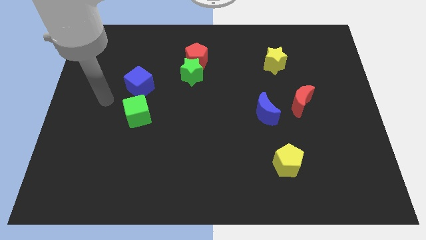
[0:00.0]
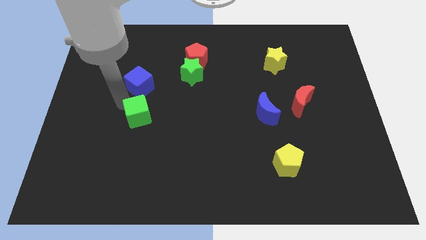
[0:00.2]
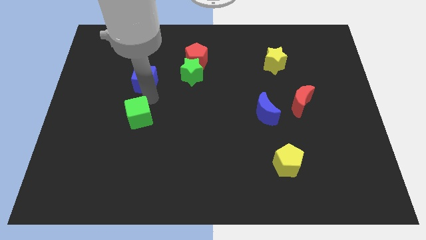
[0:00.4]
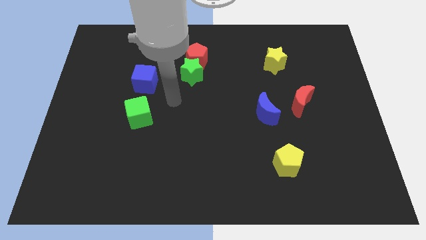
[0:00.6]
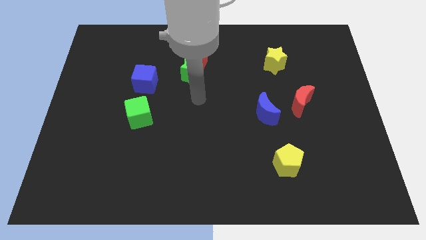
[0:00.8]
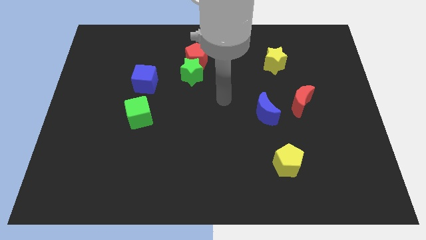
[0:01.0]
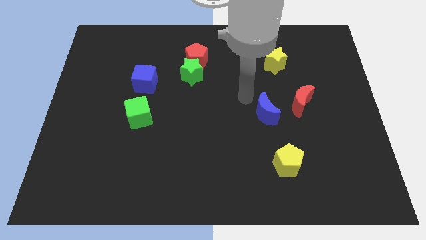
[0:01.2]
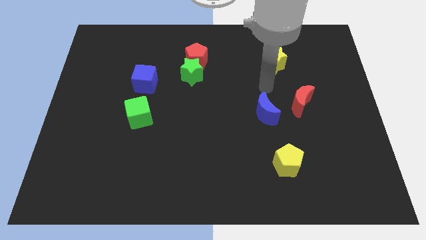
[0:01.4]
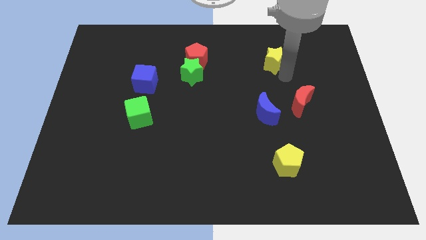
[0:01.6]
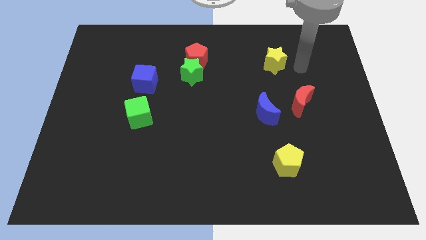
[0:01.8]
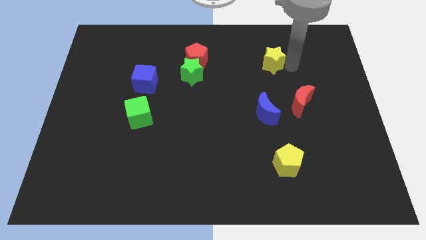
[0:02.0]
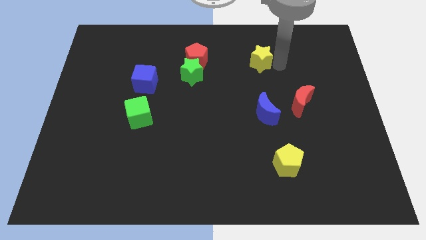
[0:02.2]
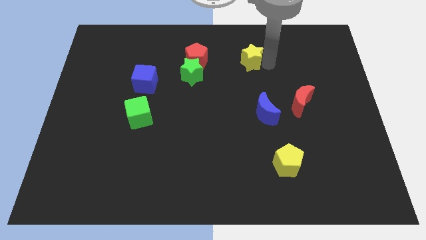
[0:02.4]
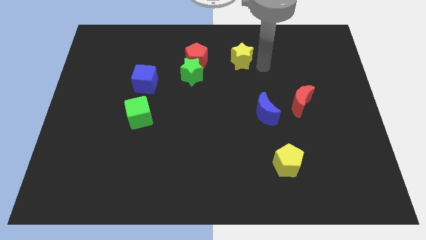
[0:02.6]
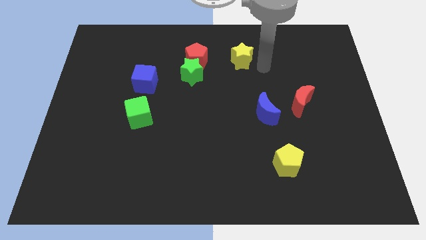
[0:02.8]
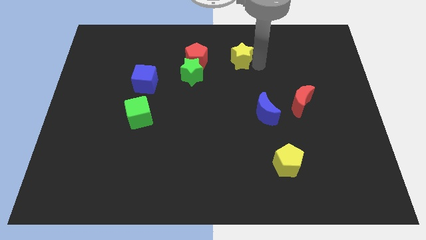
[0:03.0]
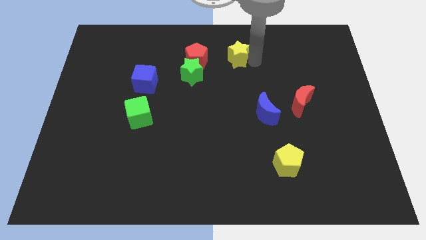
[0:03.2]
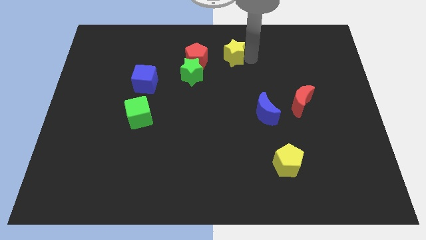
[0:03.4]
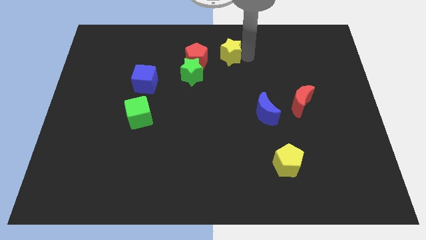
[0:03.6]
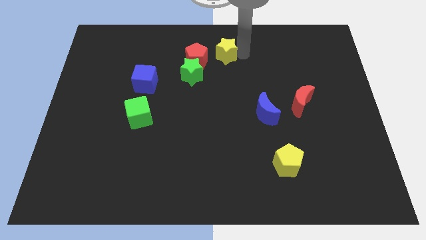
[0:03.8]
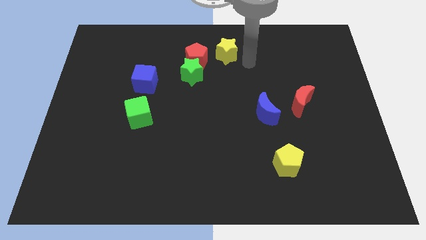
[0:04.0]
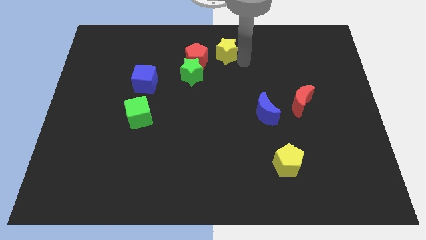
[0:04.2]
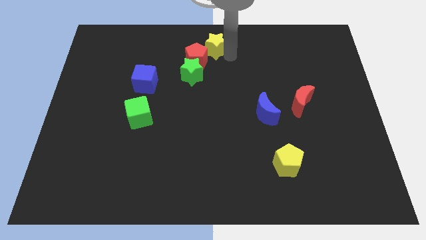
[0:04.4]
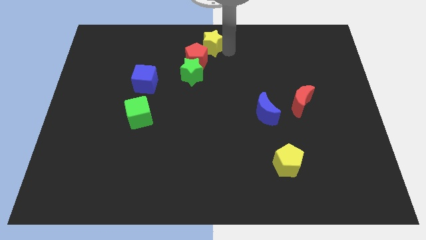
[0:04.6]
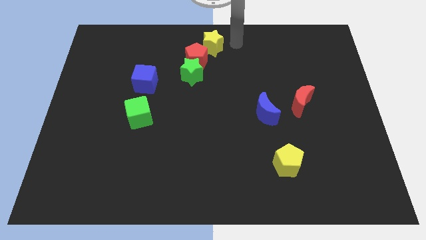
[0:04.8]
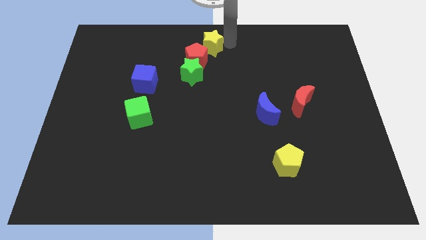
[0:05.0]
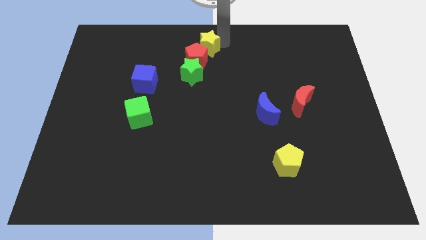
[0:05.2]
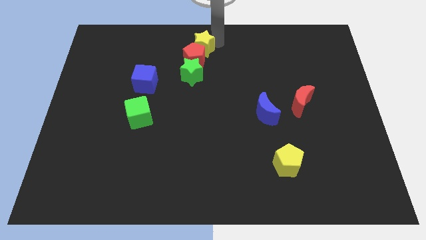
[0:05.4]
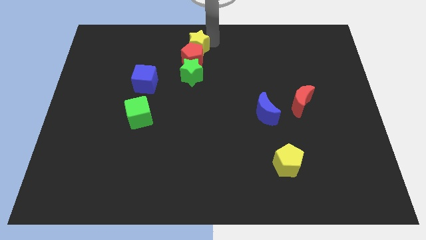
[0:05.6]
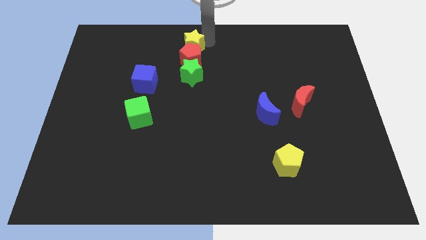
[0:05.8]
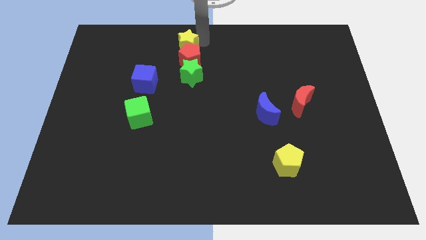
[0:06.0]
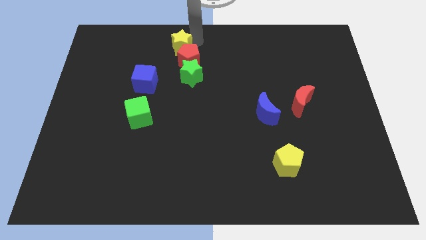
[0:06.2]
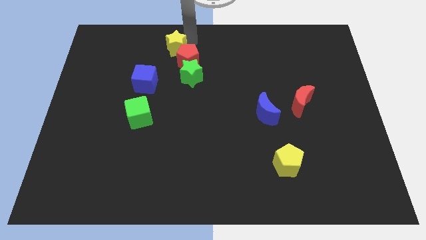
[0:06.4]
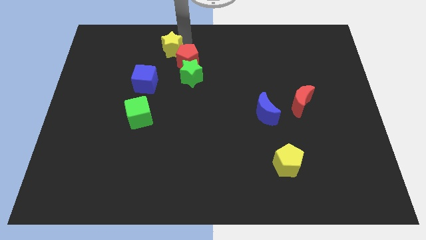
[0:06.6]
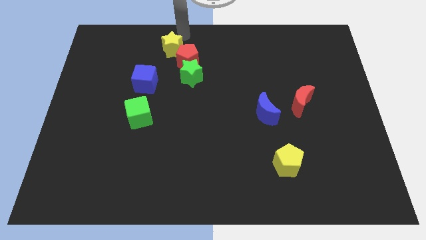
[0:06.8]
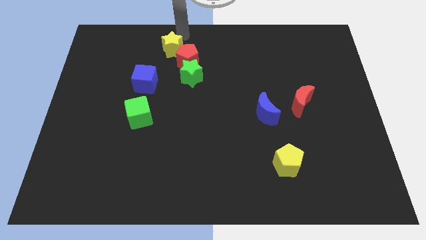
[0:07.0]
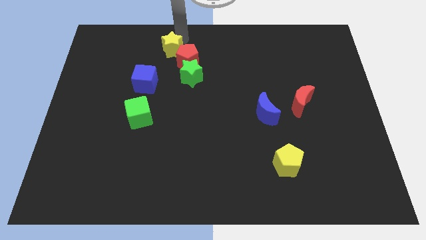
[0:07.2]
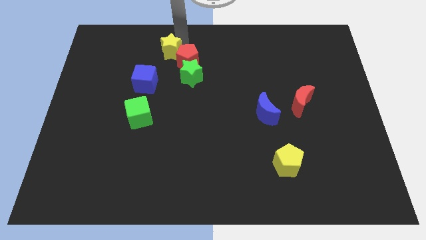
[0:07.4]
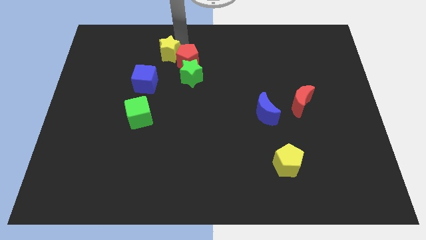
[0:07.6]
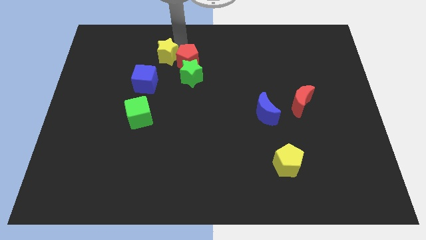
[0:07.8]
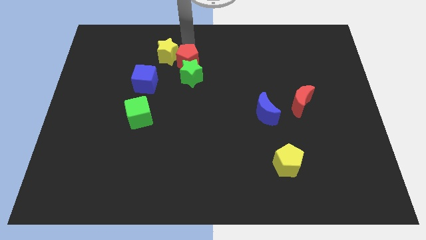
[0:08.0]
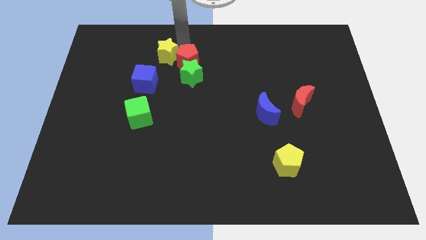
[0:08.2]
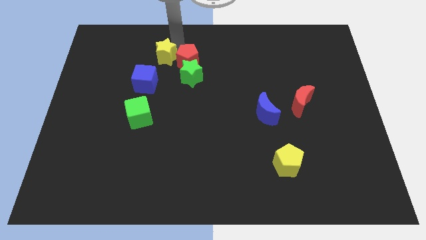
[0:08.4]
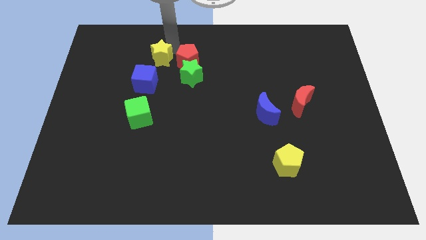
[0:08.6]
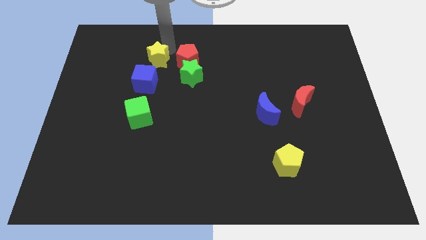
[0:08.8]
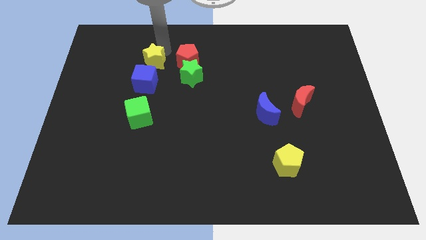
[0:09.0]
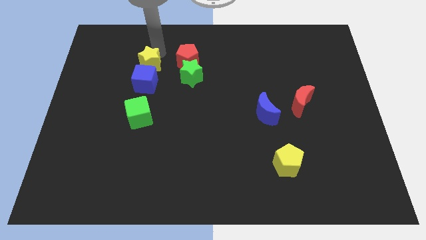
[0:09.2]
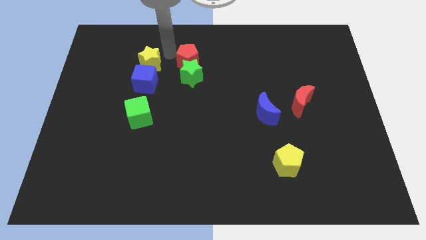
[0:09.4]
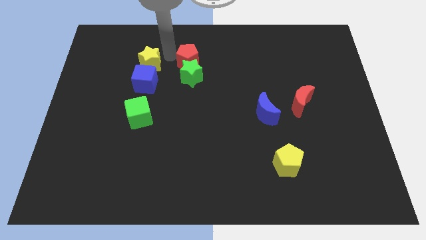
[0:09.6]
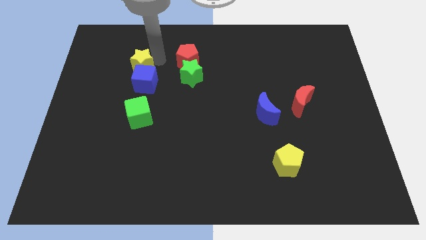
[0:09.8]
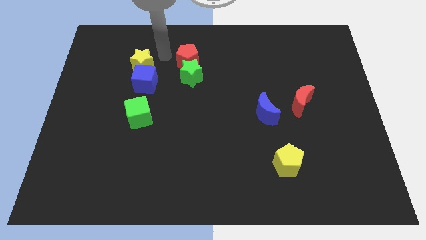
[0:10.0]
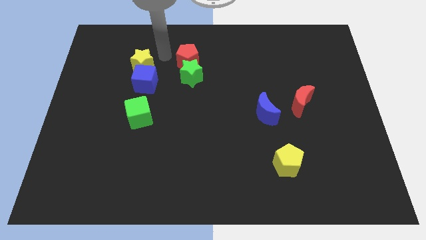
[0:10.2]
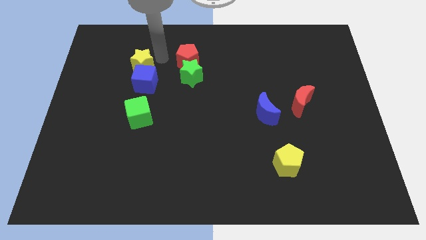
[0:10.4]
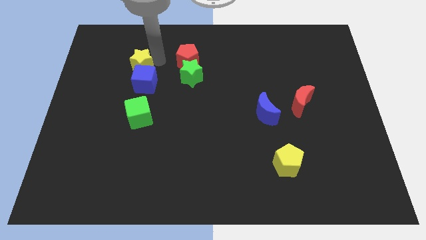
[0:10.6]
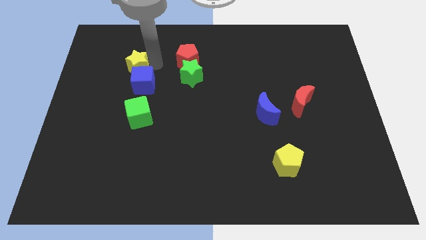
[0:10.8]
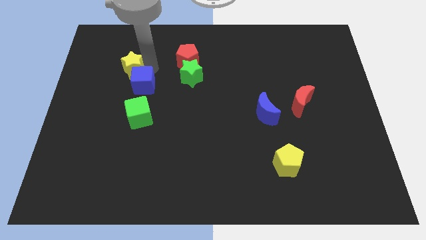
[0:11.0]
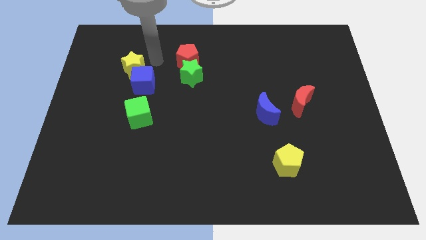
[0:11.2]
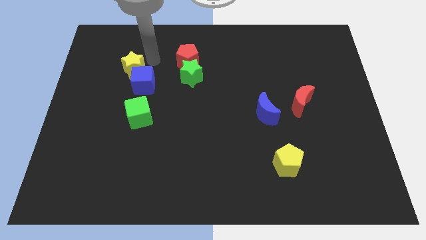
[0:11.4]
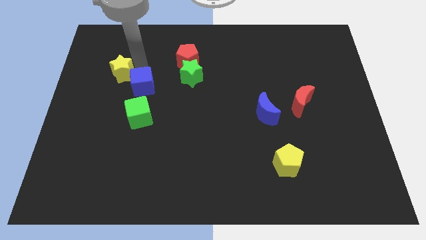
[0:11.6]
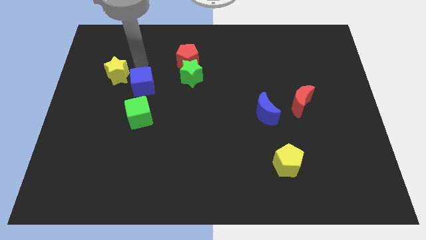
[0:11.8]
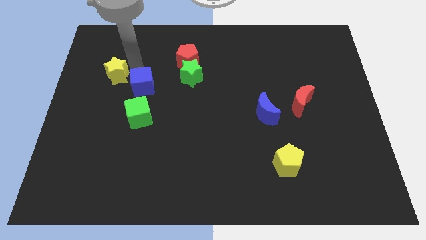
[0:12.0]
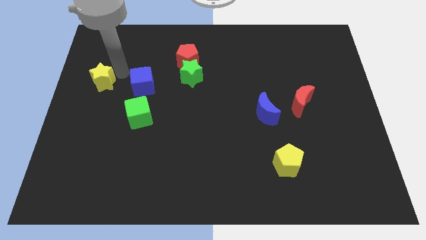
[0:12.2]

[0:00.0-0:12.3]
put the yellow star to the left side

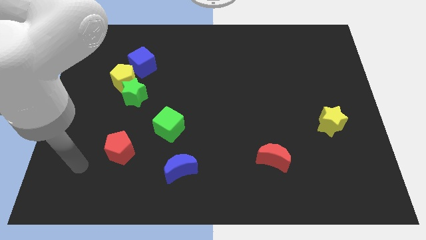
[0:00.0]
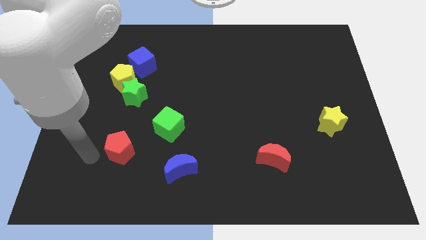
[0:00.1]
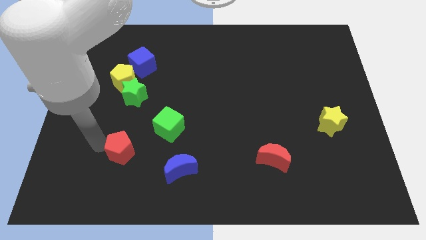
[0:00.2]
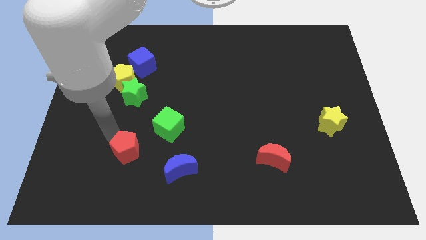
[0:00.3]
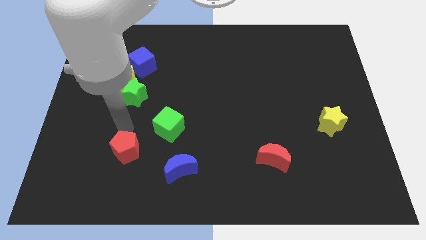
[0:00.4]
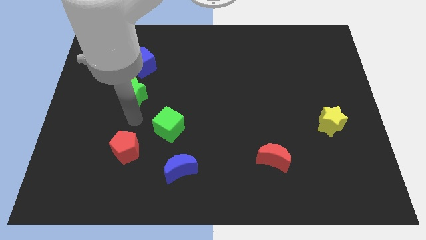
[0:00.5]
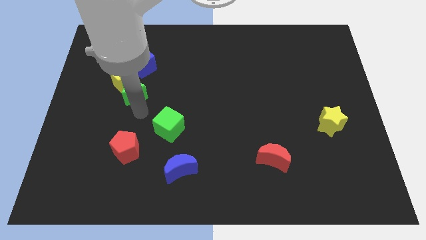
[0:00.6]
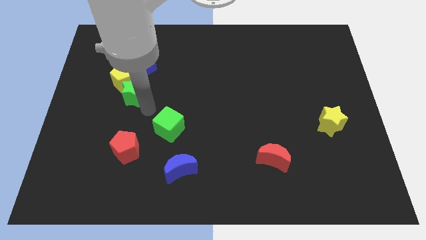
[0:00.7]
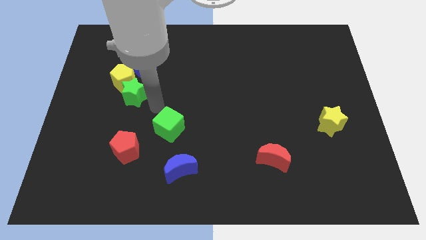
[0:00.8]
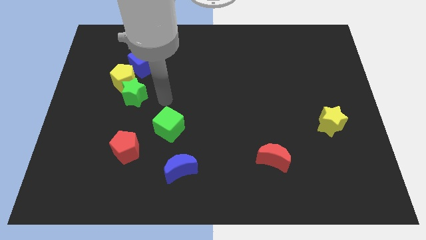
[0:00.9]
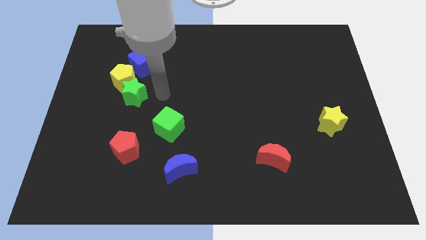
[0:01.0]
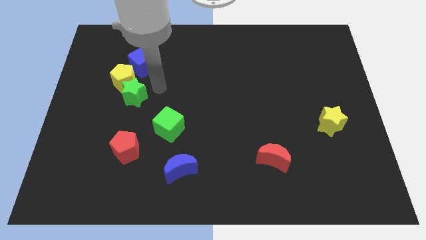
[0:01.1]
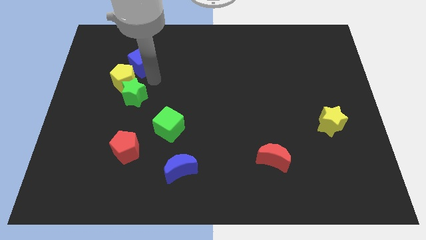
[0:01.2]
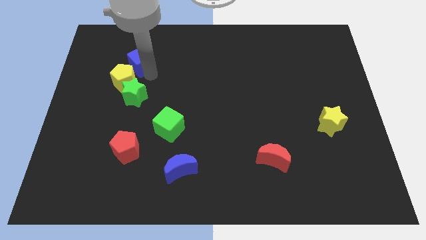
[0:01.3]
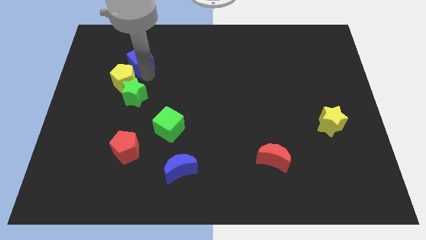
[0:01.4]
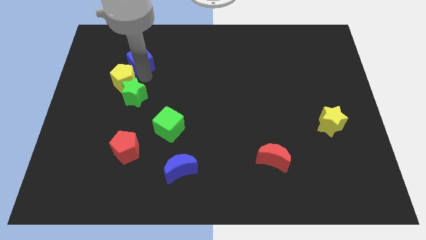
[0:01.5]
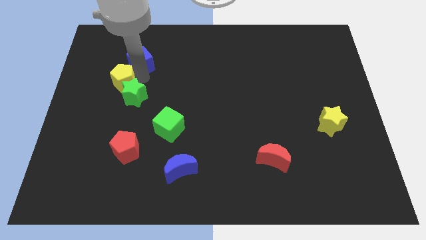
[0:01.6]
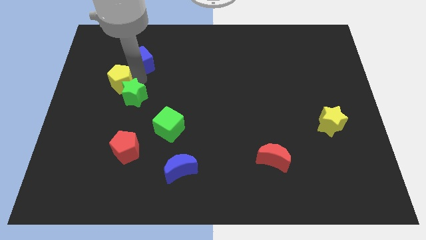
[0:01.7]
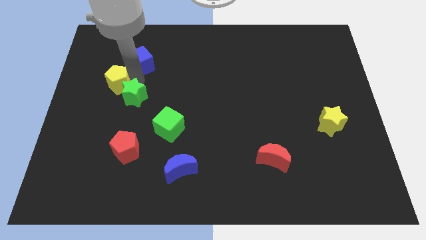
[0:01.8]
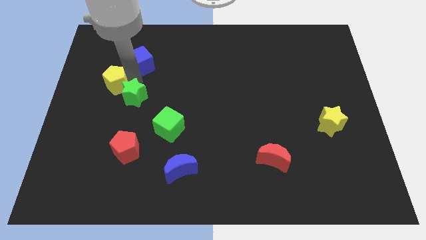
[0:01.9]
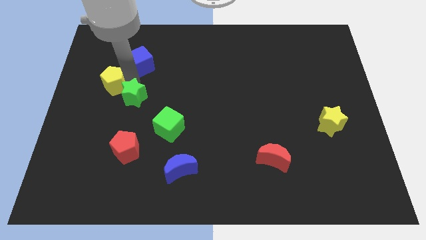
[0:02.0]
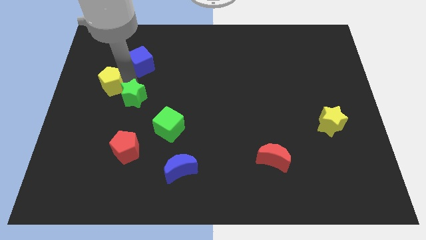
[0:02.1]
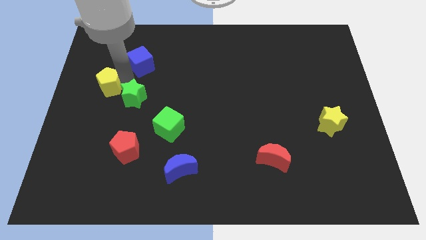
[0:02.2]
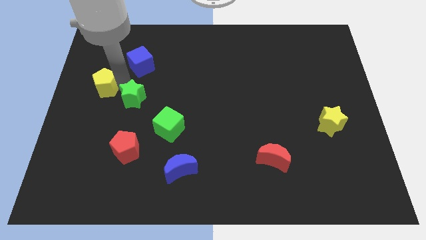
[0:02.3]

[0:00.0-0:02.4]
slide the yellow pentagon to the left side of the board
